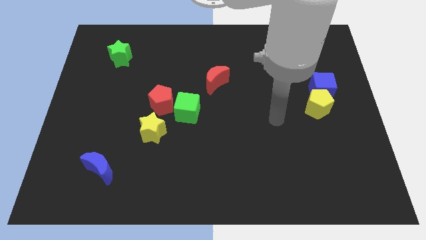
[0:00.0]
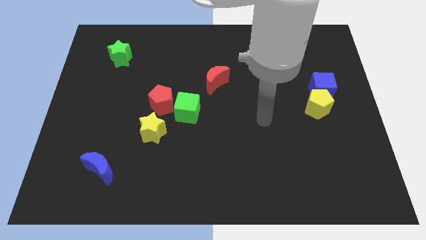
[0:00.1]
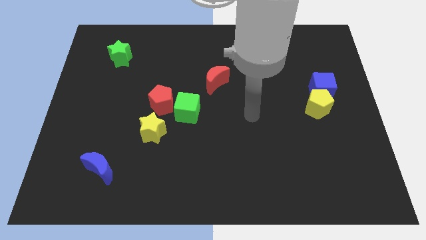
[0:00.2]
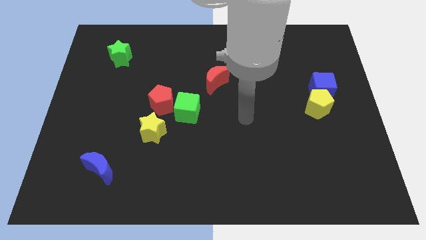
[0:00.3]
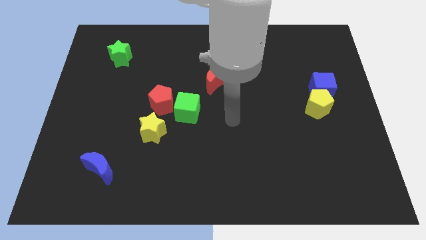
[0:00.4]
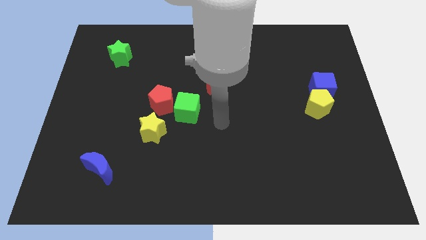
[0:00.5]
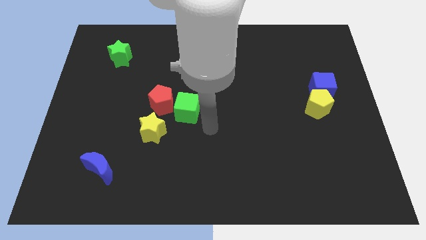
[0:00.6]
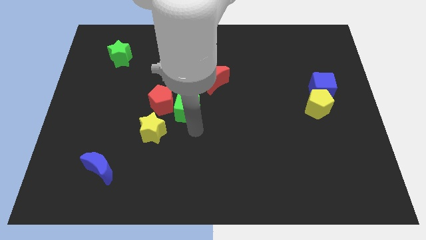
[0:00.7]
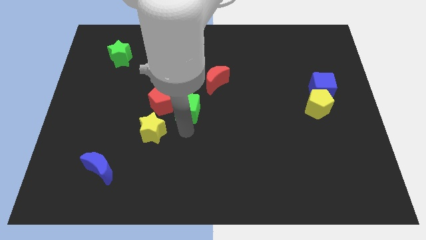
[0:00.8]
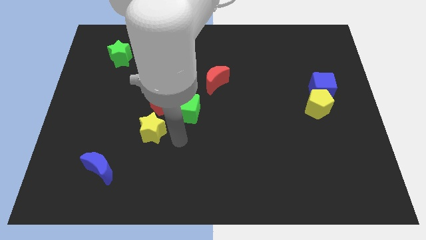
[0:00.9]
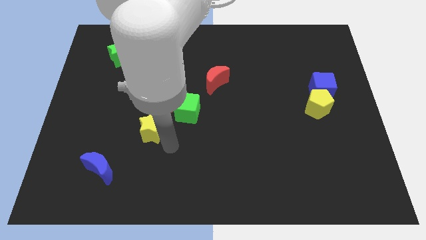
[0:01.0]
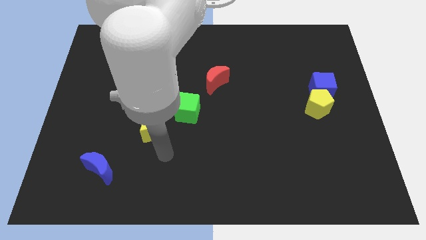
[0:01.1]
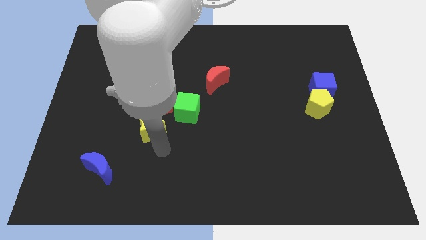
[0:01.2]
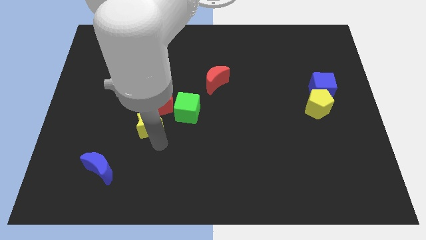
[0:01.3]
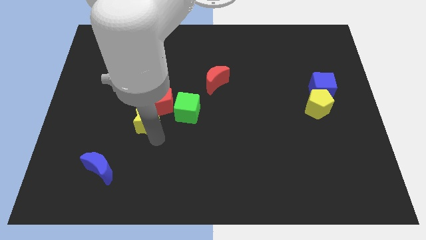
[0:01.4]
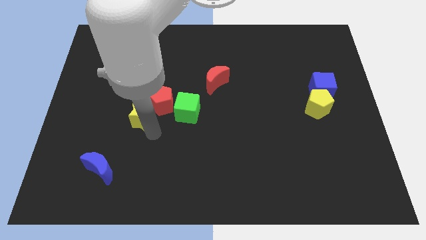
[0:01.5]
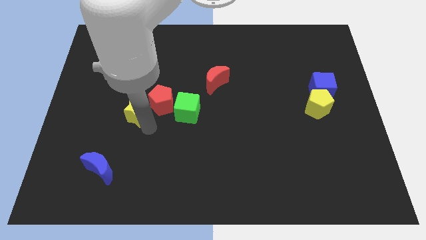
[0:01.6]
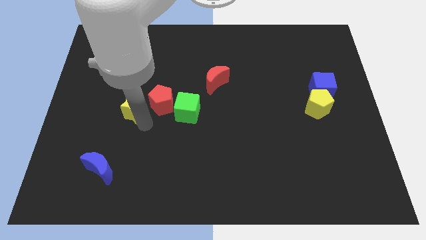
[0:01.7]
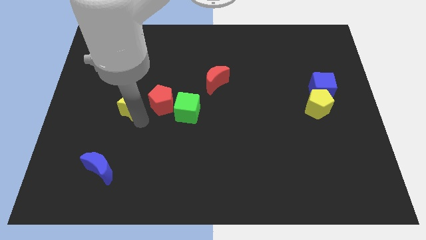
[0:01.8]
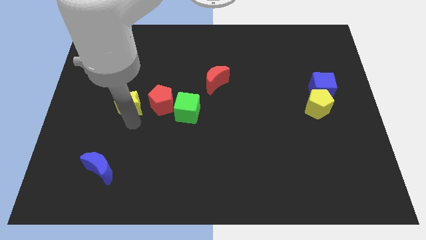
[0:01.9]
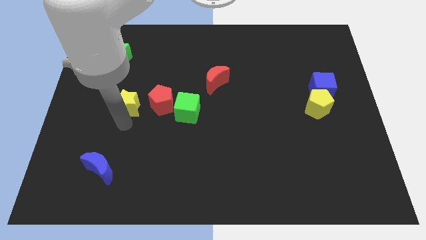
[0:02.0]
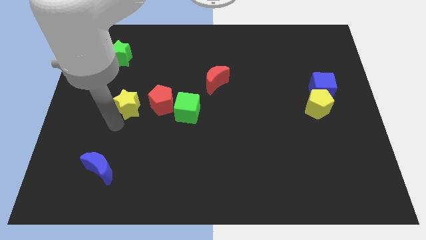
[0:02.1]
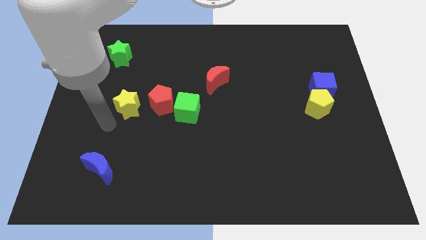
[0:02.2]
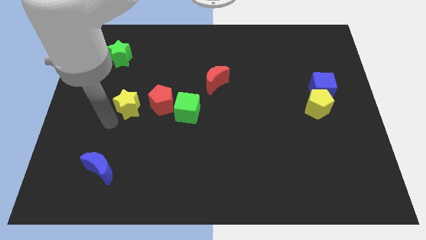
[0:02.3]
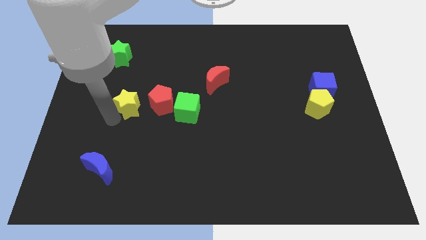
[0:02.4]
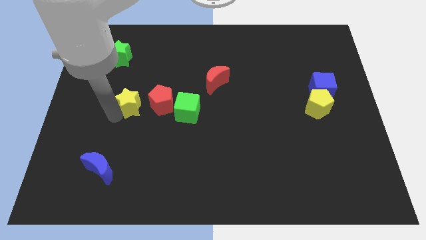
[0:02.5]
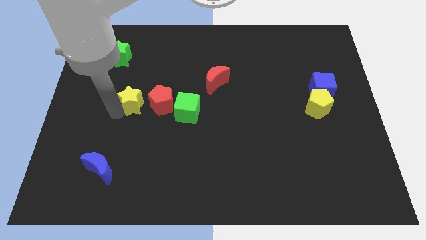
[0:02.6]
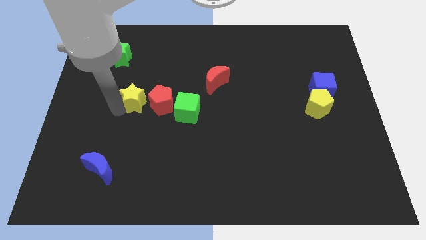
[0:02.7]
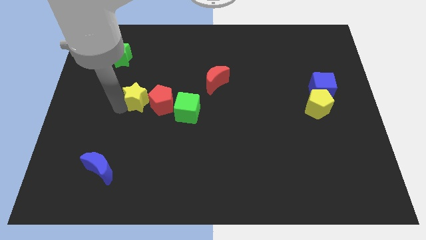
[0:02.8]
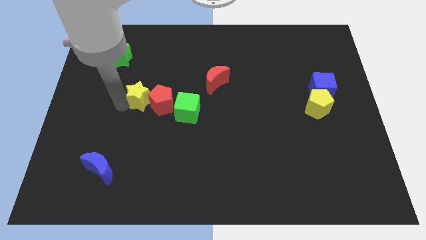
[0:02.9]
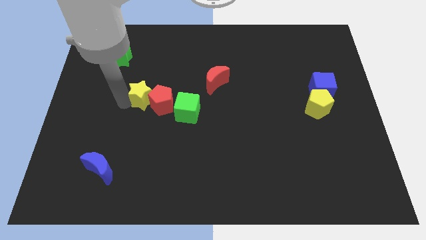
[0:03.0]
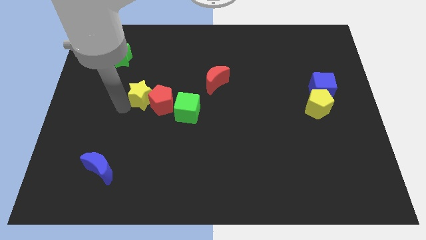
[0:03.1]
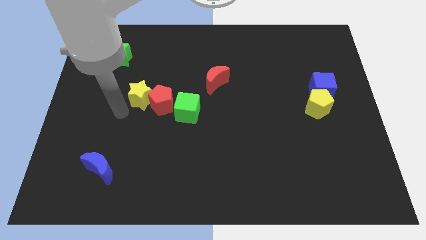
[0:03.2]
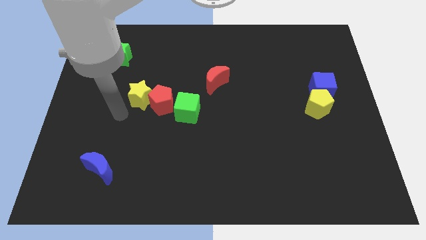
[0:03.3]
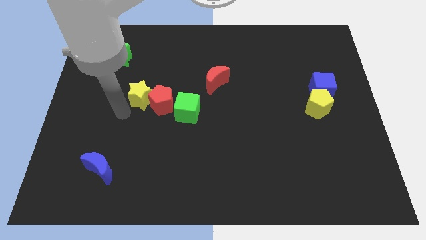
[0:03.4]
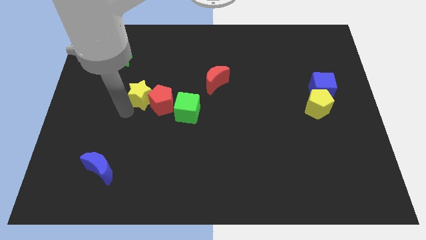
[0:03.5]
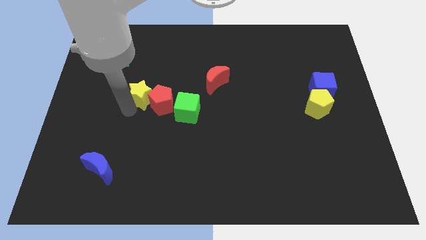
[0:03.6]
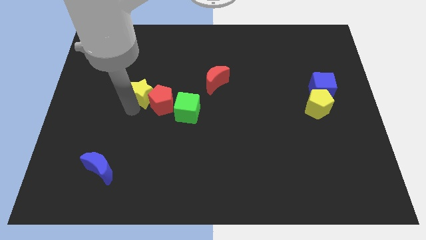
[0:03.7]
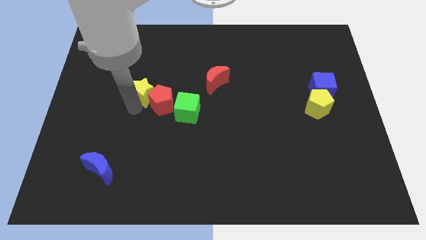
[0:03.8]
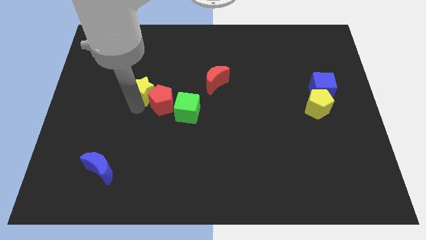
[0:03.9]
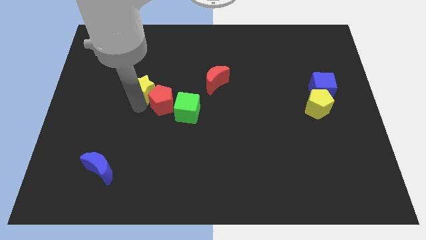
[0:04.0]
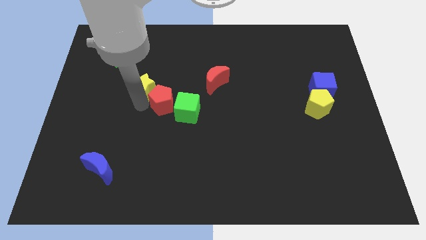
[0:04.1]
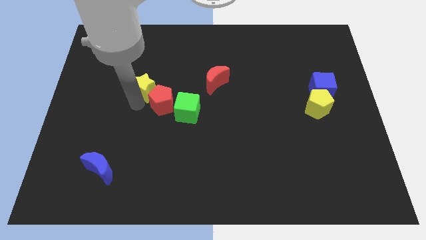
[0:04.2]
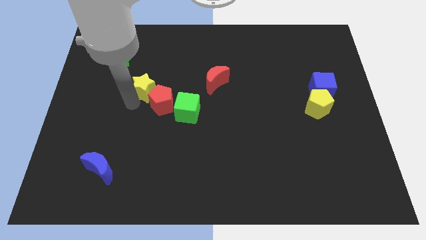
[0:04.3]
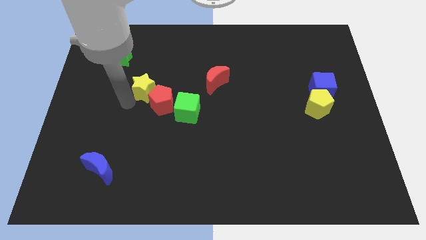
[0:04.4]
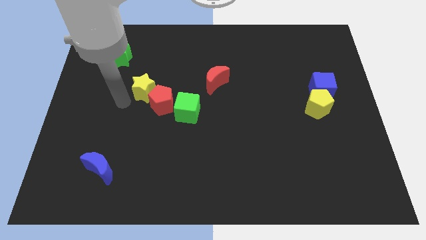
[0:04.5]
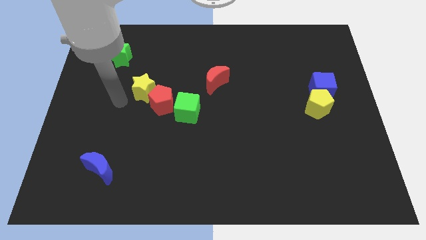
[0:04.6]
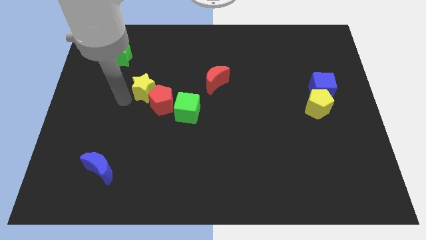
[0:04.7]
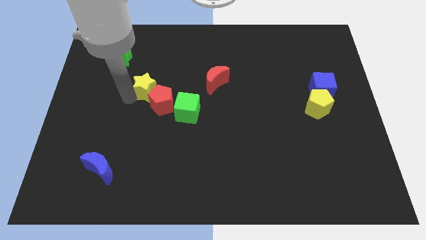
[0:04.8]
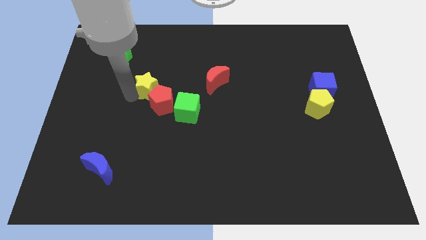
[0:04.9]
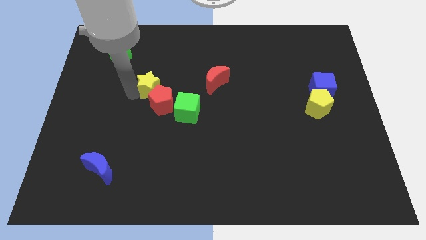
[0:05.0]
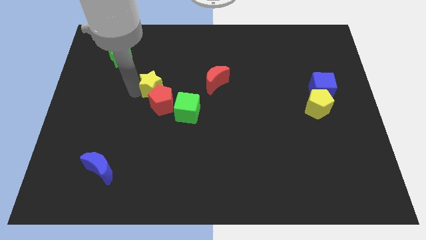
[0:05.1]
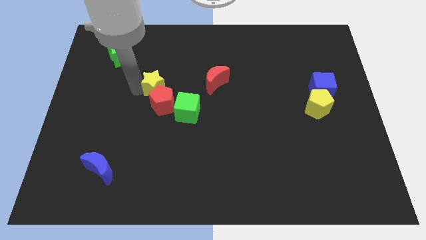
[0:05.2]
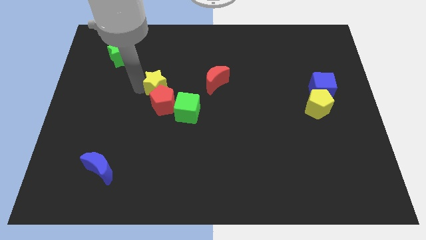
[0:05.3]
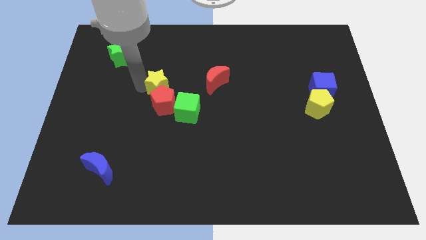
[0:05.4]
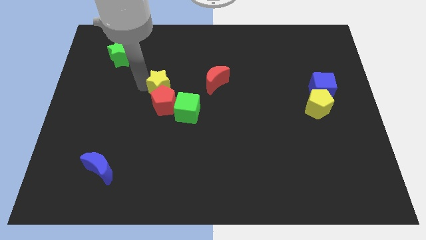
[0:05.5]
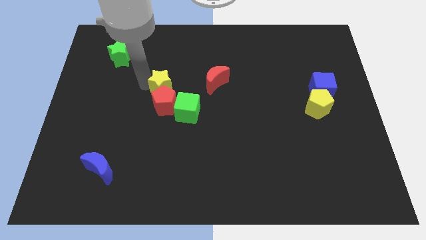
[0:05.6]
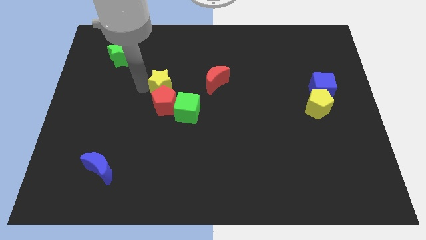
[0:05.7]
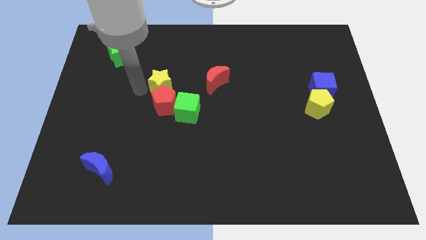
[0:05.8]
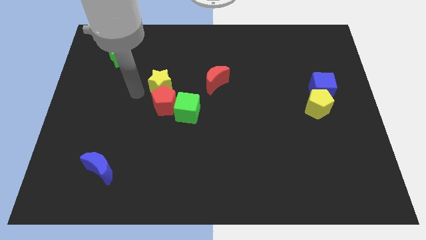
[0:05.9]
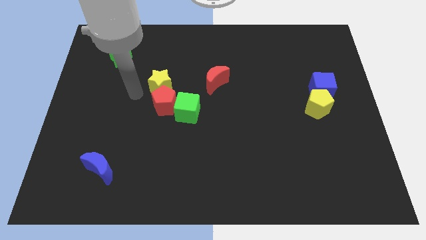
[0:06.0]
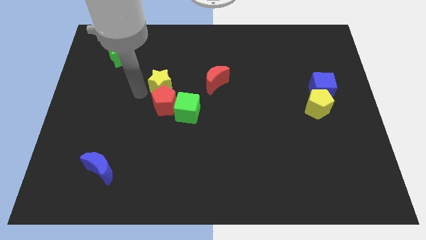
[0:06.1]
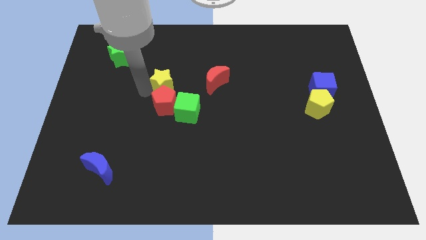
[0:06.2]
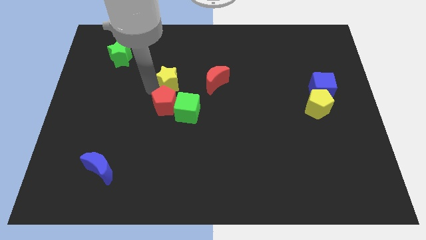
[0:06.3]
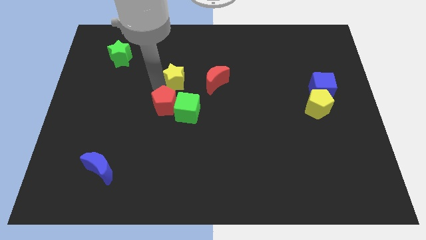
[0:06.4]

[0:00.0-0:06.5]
push the yellow star to the top side of the green cube

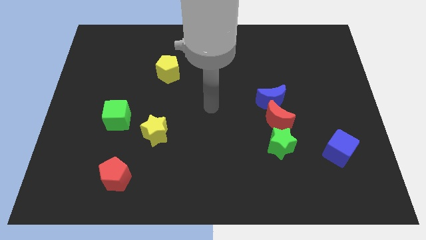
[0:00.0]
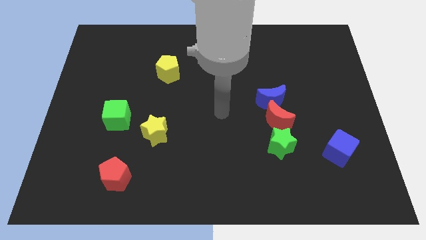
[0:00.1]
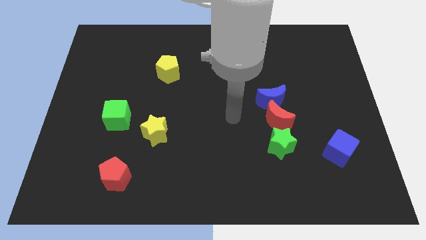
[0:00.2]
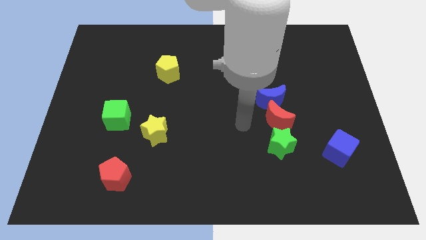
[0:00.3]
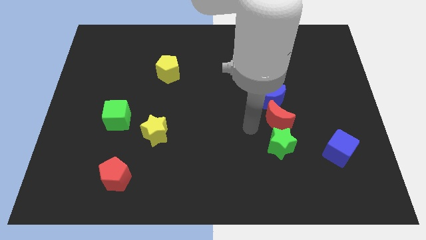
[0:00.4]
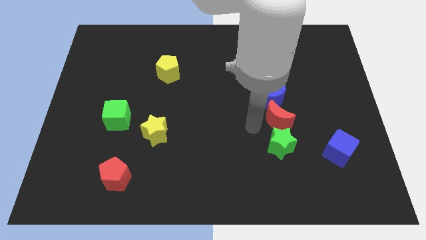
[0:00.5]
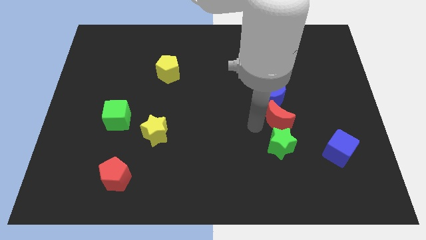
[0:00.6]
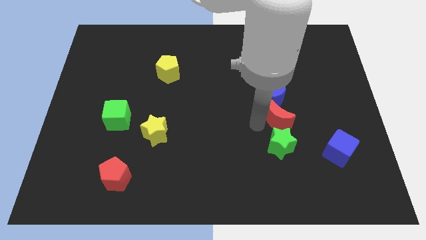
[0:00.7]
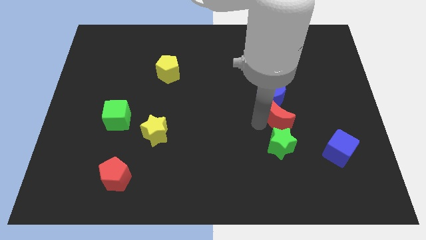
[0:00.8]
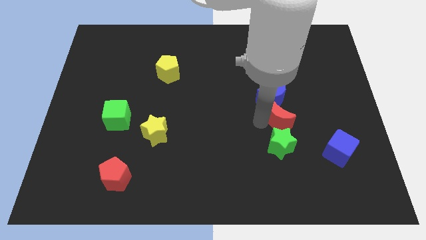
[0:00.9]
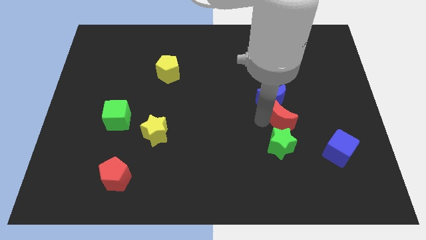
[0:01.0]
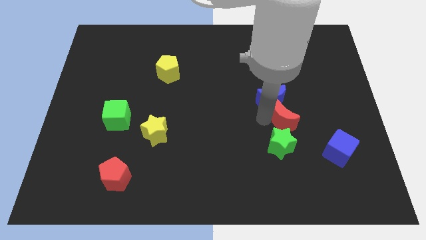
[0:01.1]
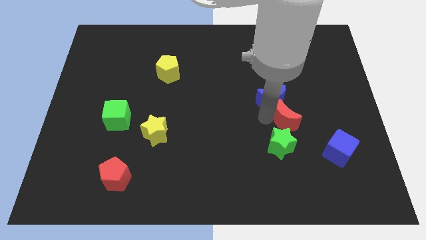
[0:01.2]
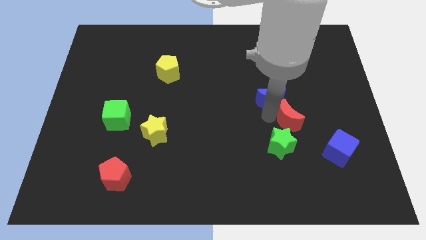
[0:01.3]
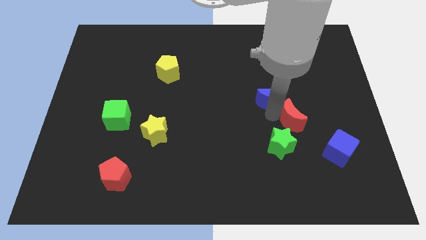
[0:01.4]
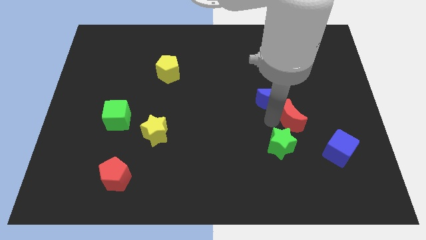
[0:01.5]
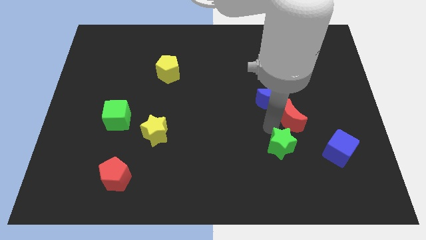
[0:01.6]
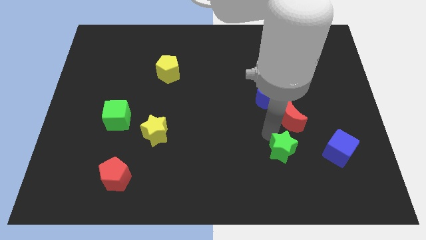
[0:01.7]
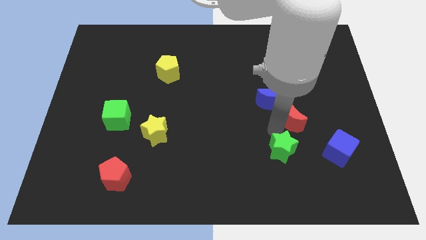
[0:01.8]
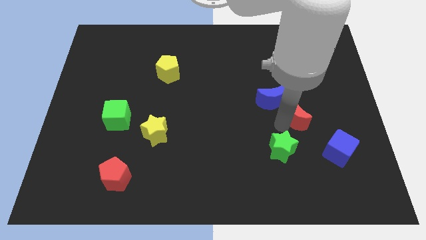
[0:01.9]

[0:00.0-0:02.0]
slide the red moon right of the blue moon
